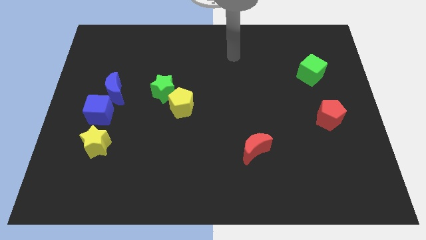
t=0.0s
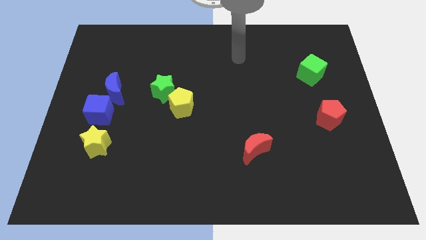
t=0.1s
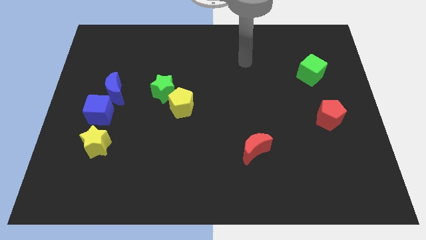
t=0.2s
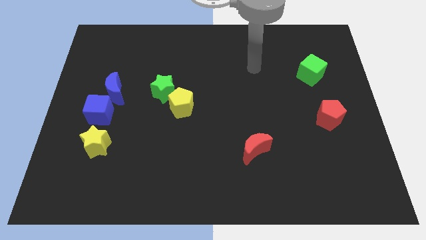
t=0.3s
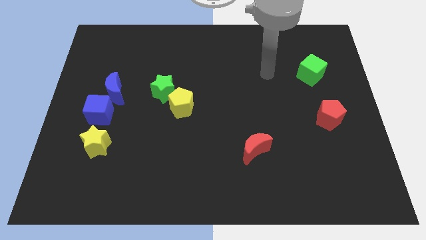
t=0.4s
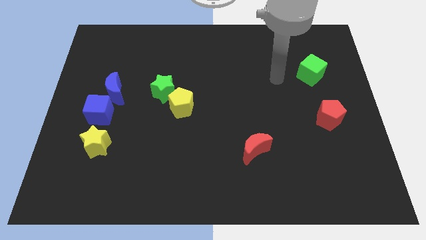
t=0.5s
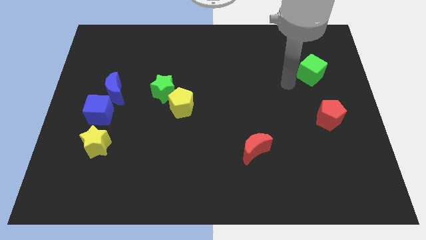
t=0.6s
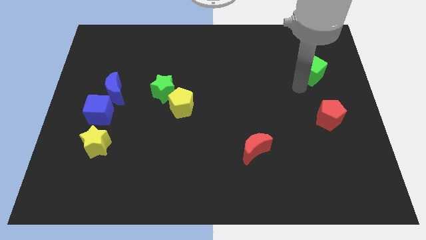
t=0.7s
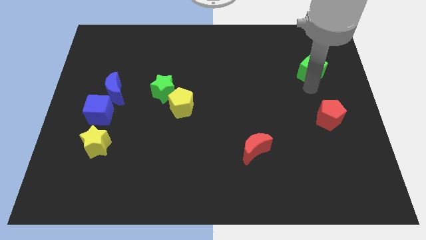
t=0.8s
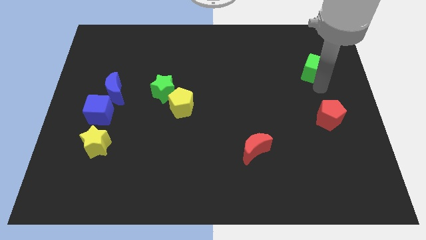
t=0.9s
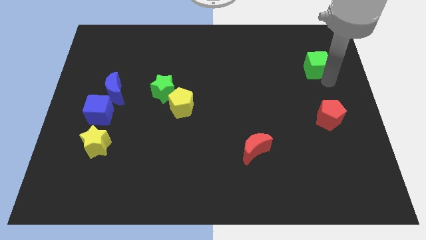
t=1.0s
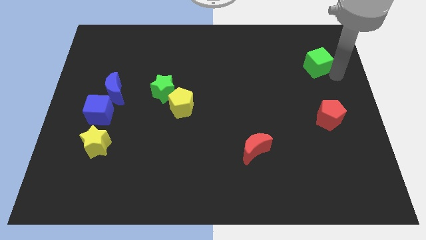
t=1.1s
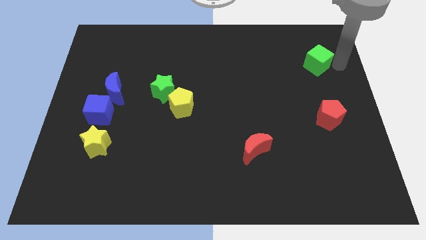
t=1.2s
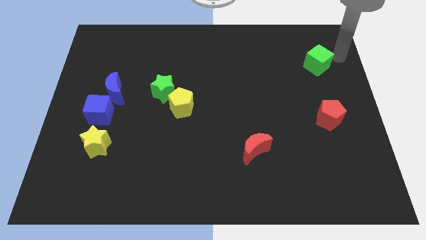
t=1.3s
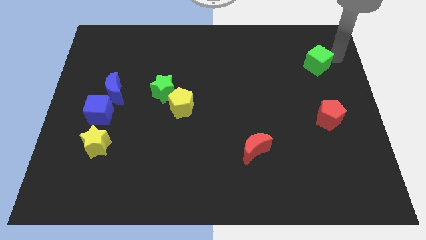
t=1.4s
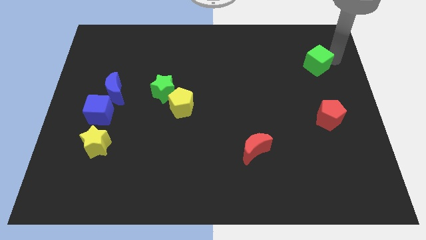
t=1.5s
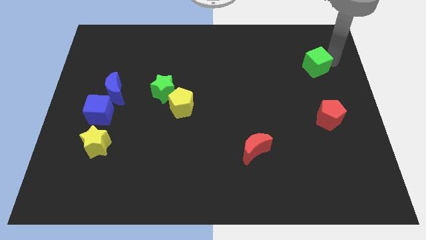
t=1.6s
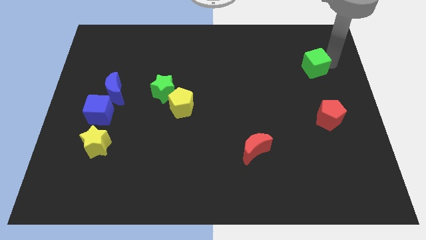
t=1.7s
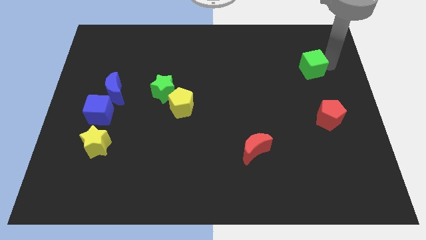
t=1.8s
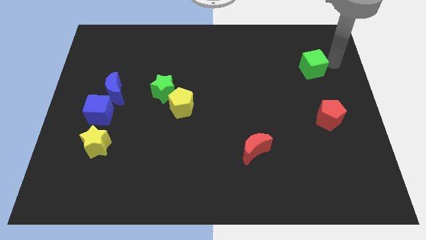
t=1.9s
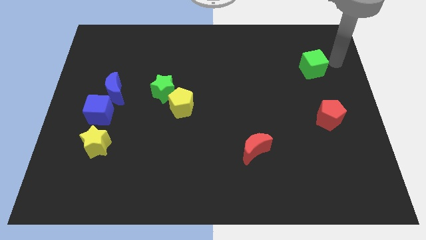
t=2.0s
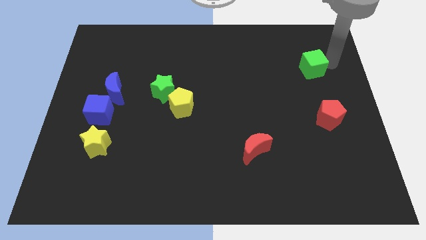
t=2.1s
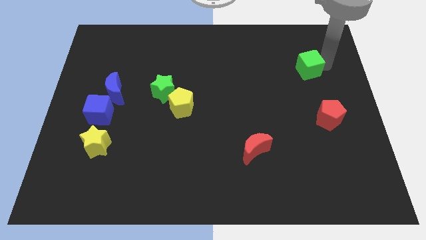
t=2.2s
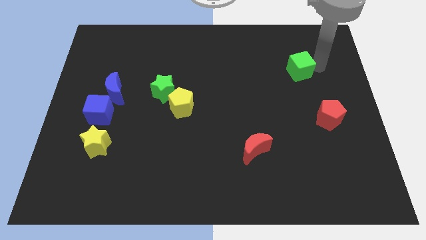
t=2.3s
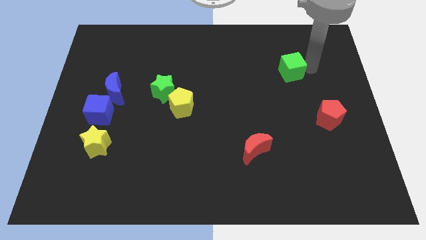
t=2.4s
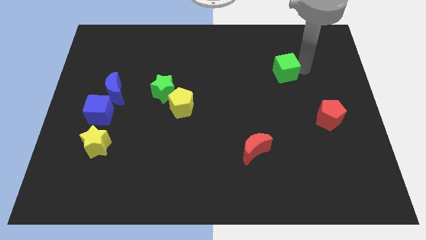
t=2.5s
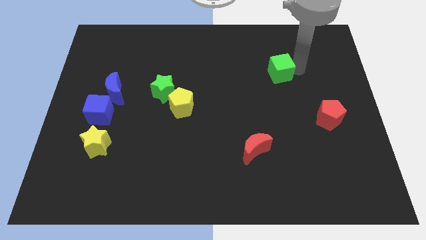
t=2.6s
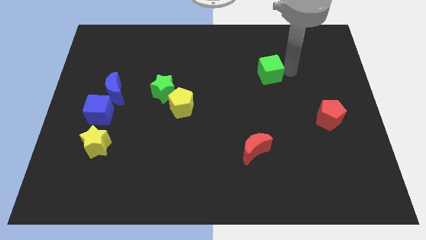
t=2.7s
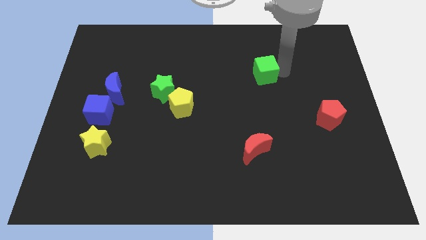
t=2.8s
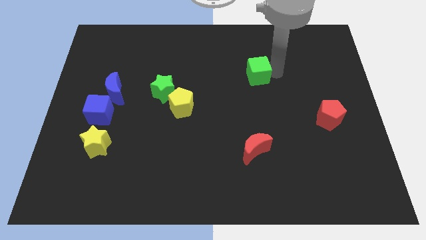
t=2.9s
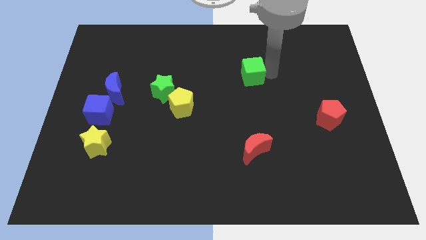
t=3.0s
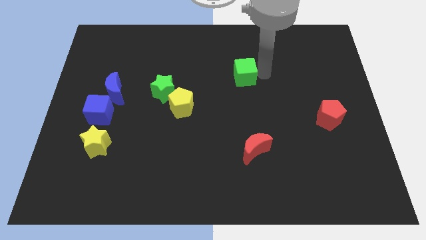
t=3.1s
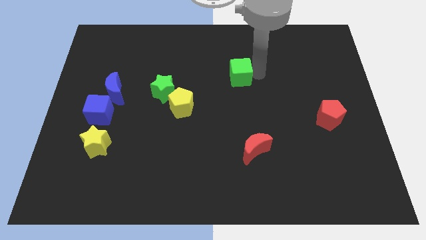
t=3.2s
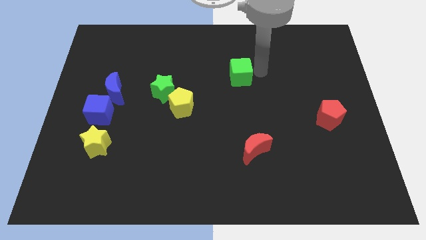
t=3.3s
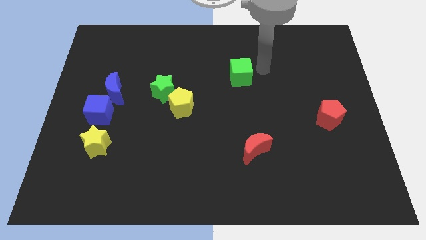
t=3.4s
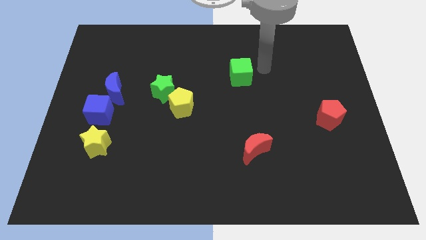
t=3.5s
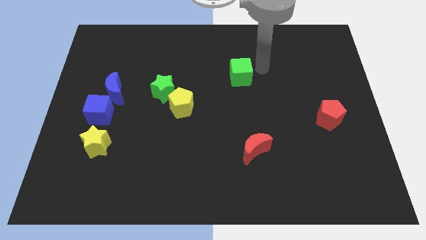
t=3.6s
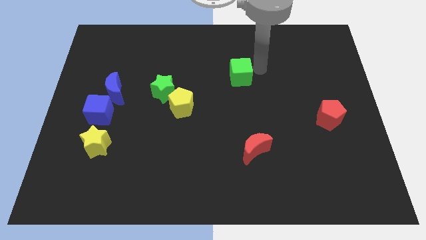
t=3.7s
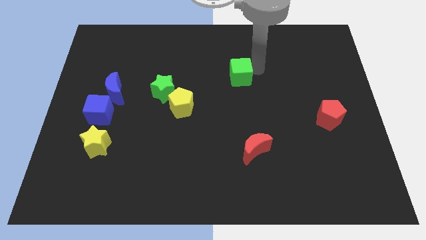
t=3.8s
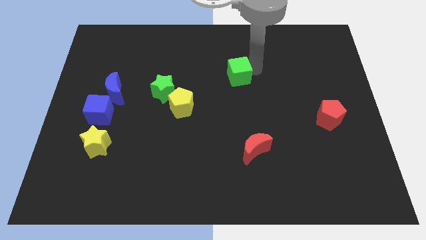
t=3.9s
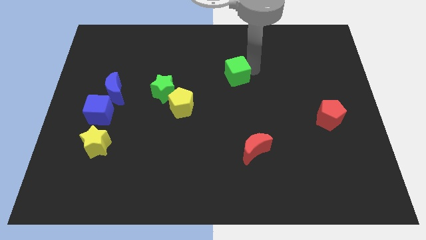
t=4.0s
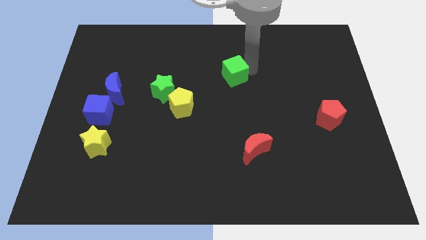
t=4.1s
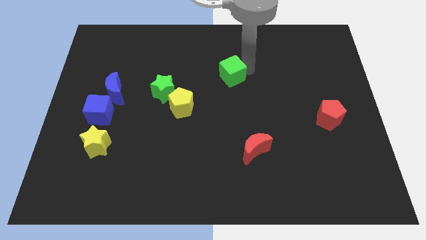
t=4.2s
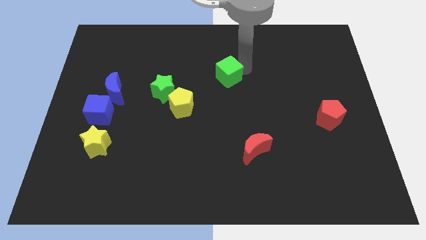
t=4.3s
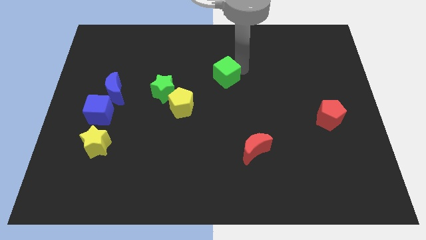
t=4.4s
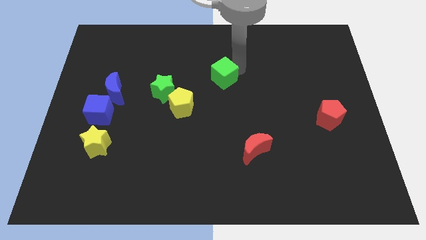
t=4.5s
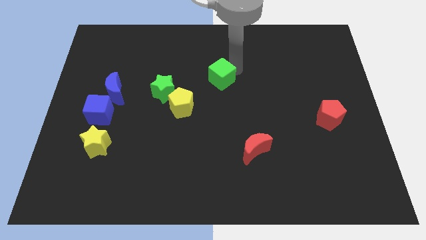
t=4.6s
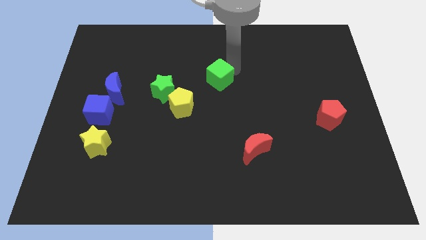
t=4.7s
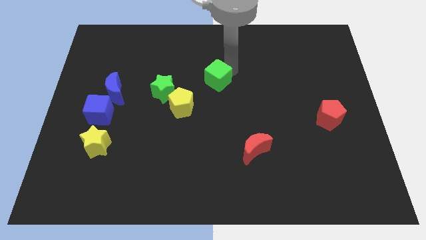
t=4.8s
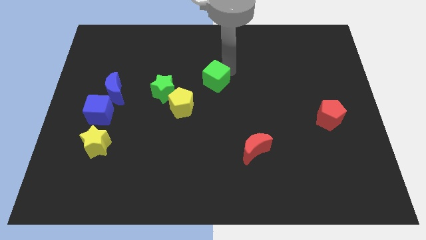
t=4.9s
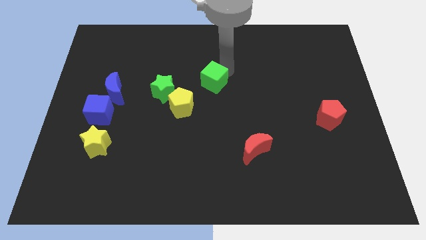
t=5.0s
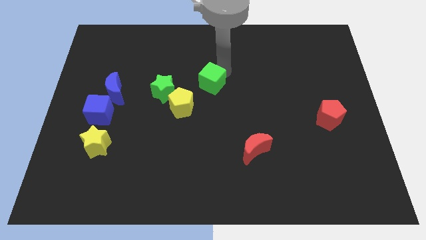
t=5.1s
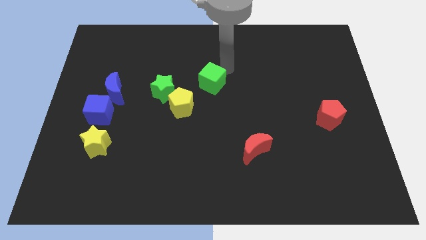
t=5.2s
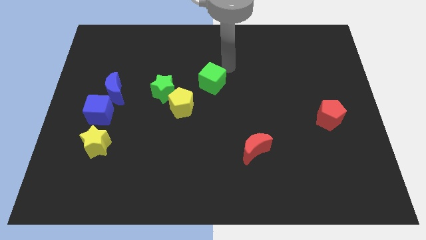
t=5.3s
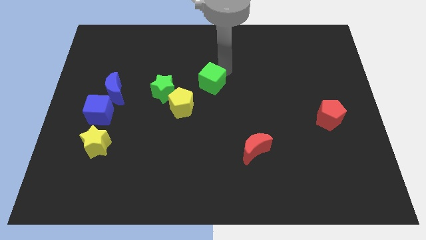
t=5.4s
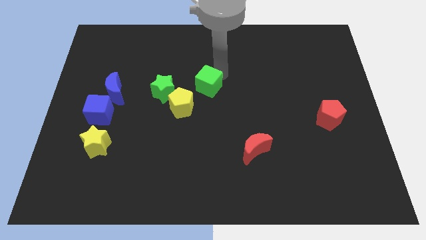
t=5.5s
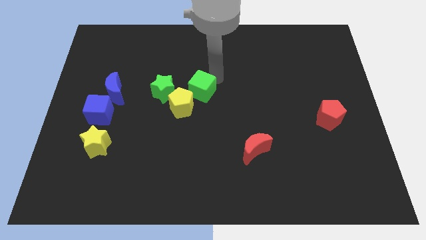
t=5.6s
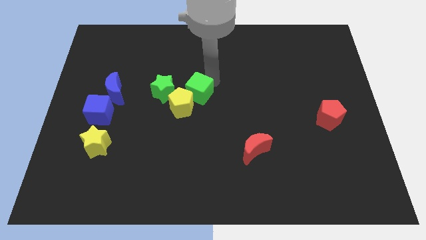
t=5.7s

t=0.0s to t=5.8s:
push the green cube towards the yellow pentagon

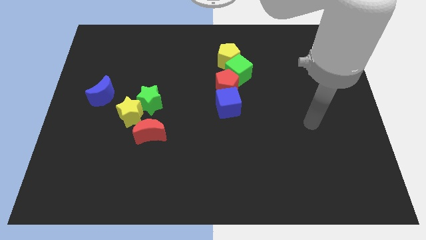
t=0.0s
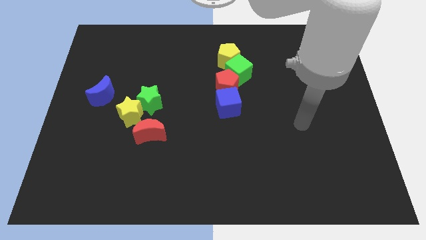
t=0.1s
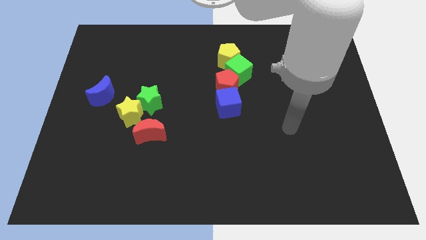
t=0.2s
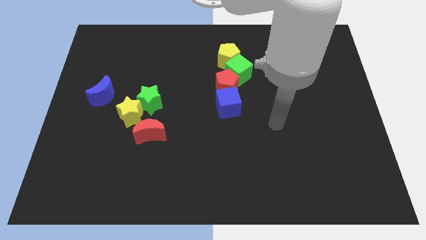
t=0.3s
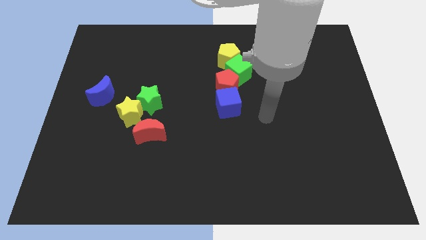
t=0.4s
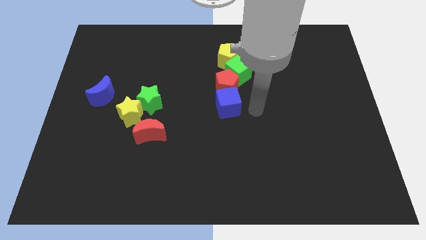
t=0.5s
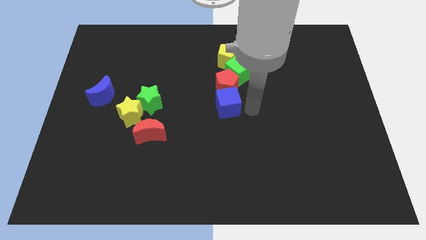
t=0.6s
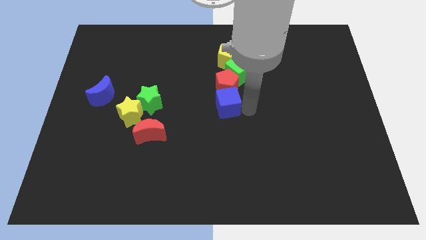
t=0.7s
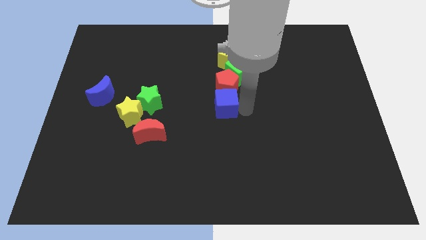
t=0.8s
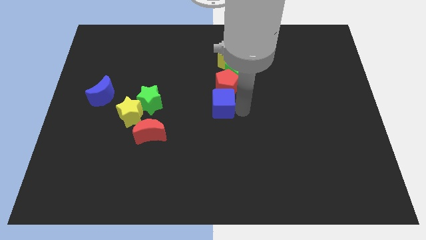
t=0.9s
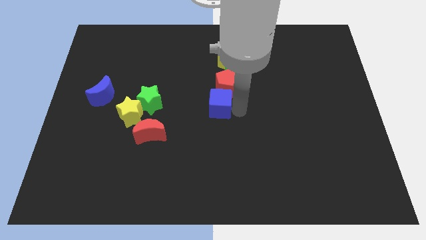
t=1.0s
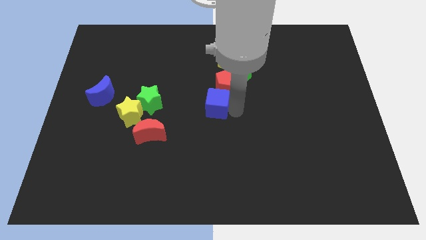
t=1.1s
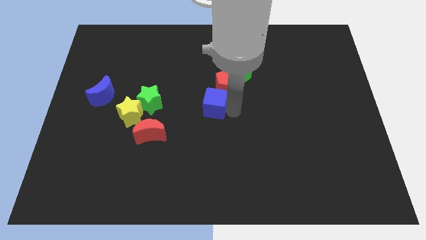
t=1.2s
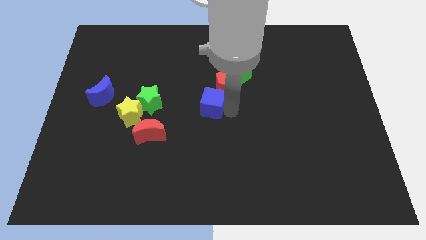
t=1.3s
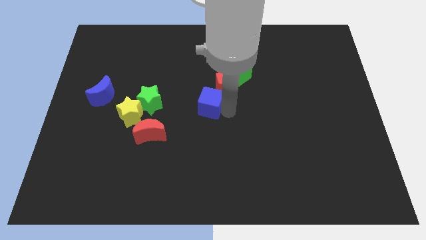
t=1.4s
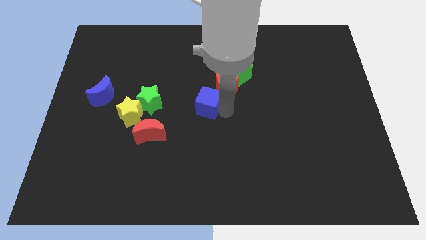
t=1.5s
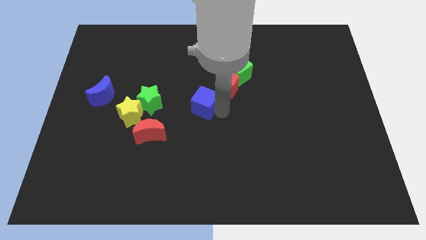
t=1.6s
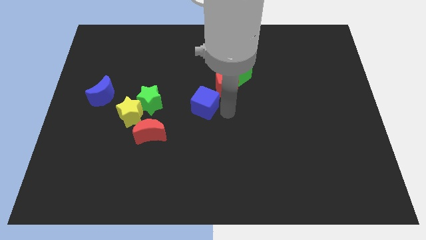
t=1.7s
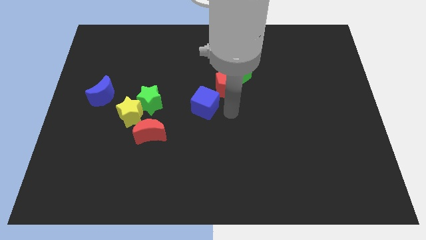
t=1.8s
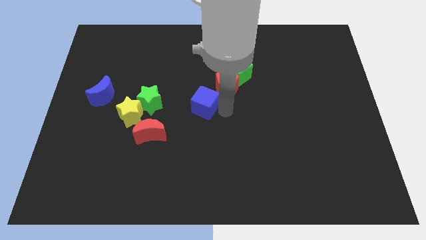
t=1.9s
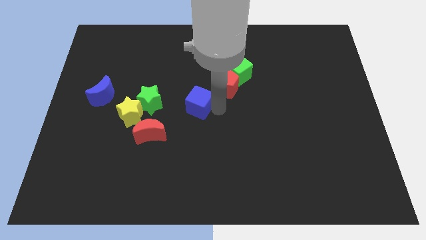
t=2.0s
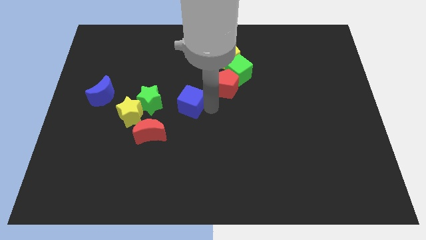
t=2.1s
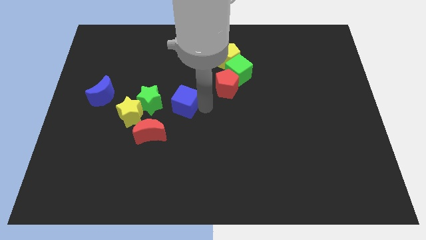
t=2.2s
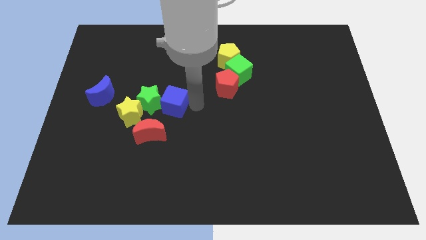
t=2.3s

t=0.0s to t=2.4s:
push the blue cube next to the green star

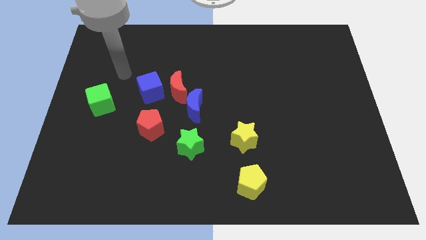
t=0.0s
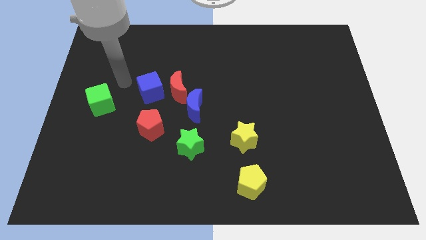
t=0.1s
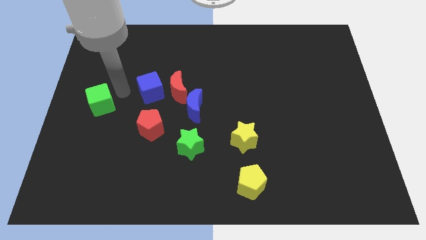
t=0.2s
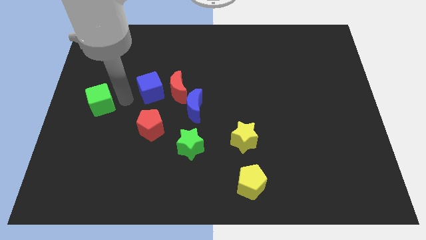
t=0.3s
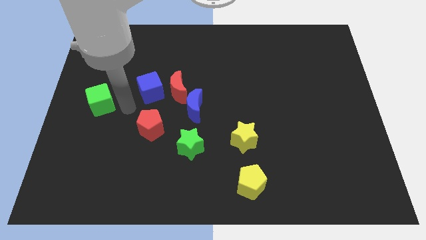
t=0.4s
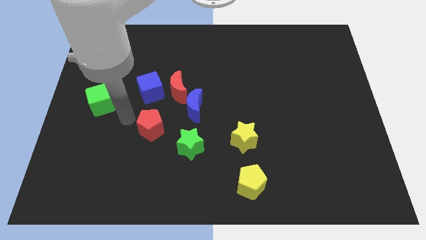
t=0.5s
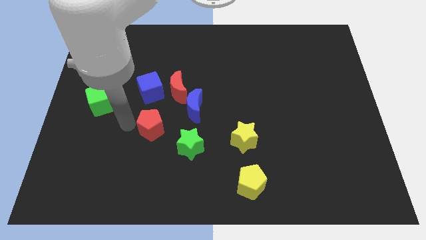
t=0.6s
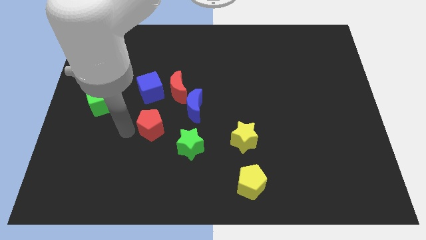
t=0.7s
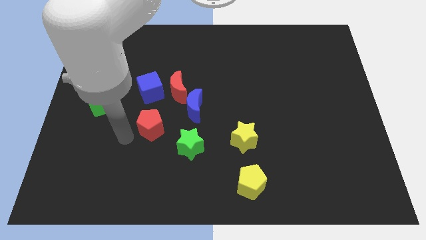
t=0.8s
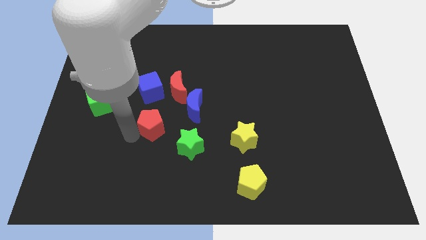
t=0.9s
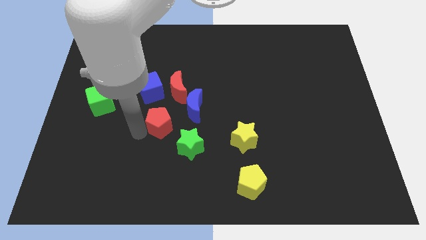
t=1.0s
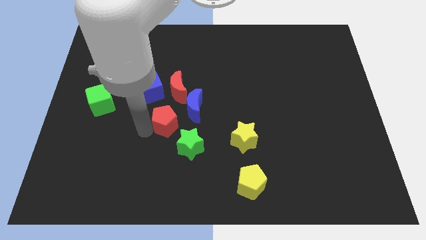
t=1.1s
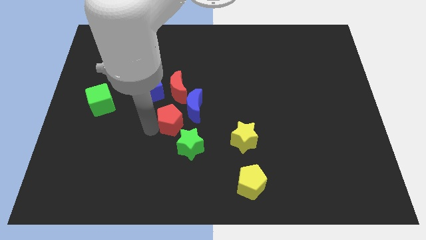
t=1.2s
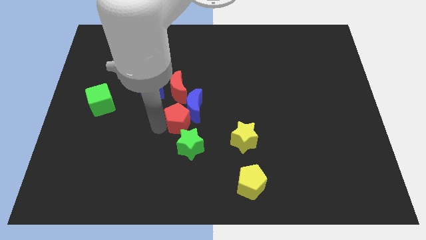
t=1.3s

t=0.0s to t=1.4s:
slide the red pentagon next to the blue moon
